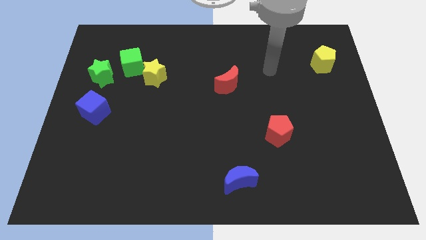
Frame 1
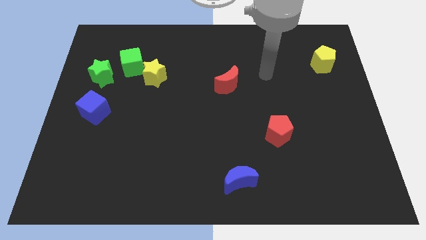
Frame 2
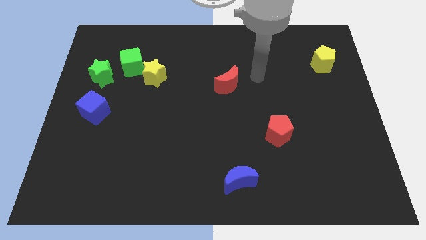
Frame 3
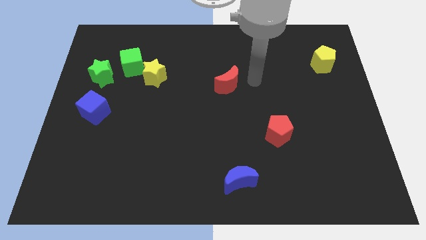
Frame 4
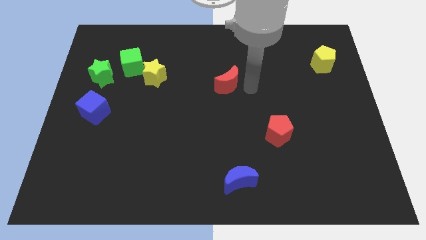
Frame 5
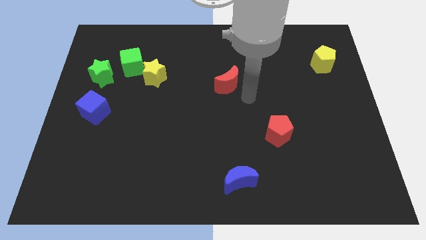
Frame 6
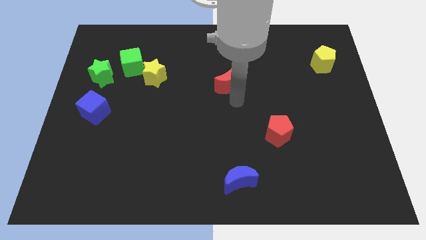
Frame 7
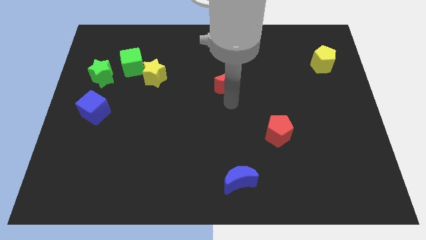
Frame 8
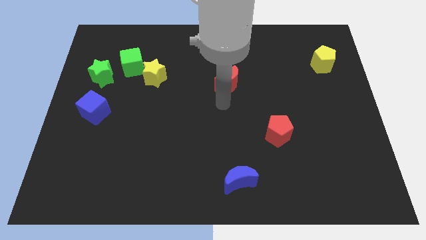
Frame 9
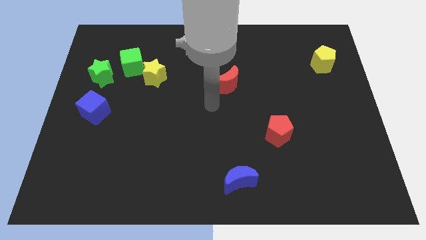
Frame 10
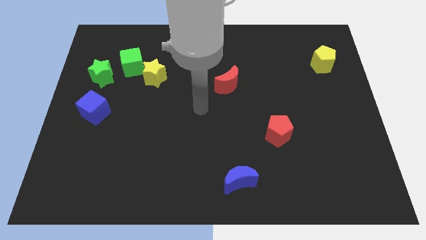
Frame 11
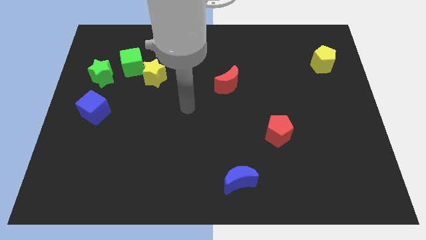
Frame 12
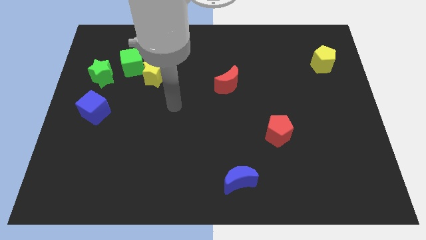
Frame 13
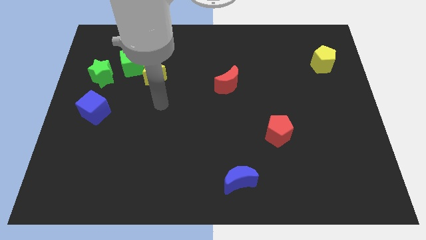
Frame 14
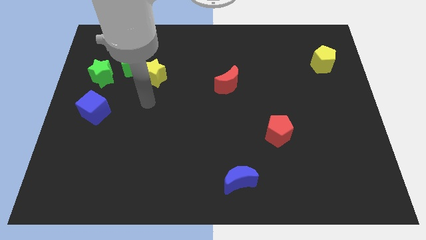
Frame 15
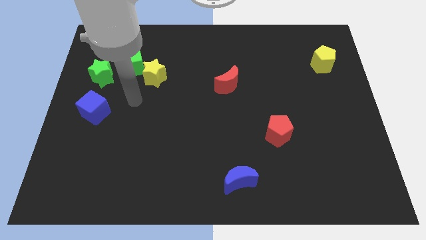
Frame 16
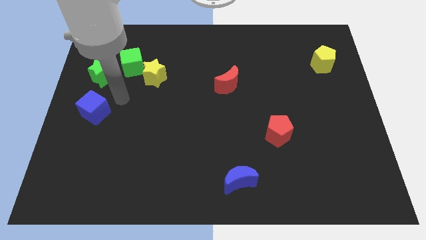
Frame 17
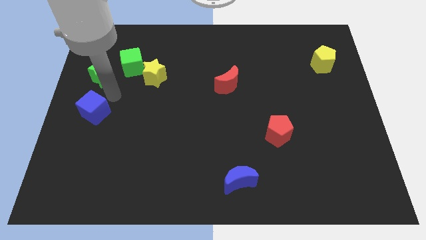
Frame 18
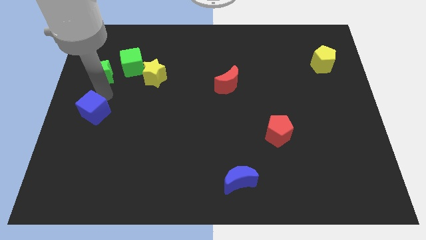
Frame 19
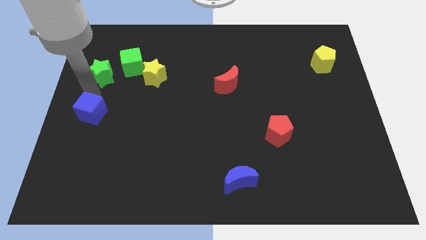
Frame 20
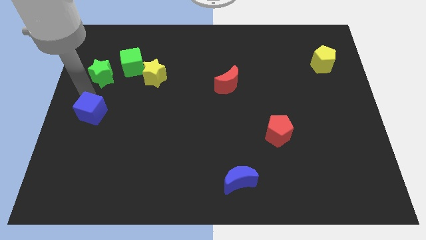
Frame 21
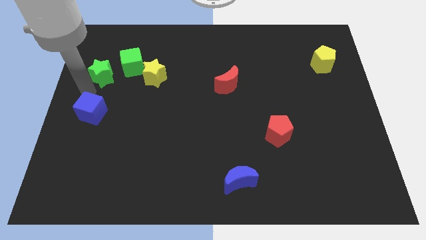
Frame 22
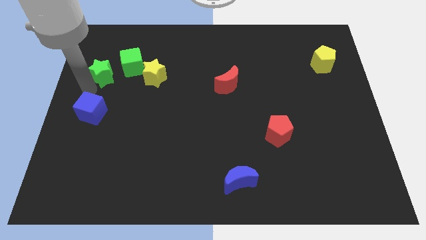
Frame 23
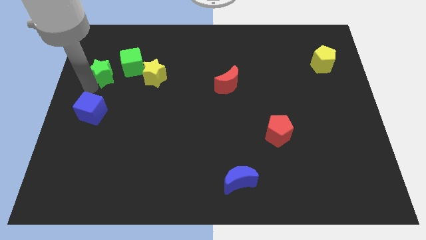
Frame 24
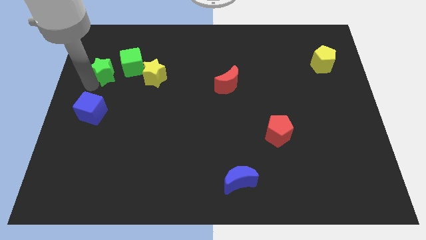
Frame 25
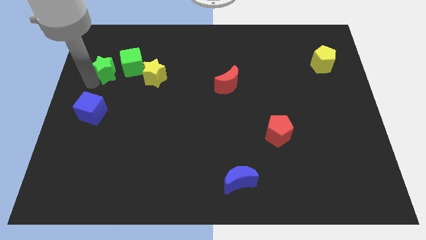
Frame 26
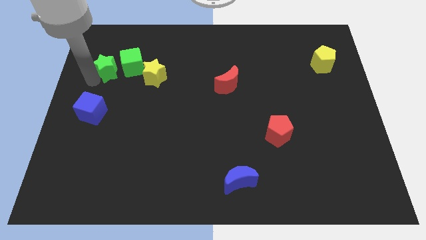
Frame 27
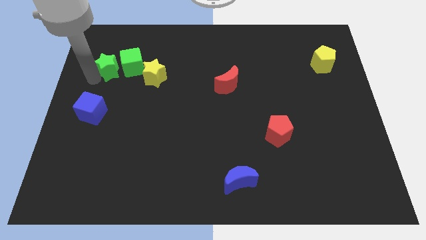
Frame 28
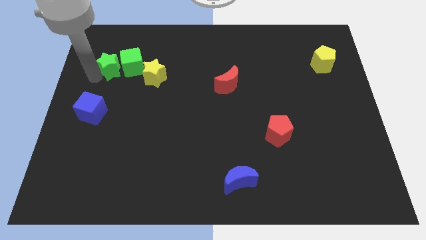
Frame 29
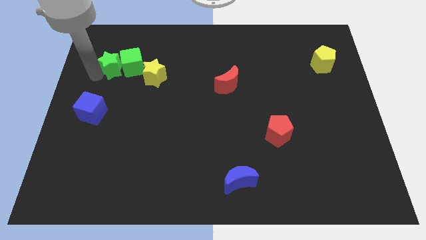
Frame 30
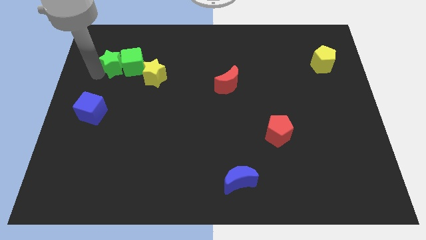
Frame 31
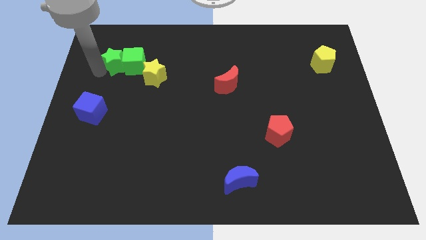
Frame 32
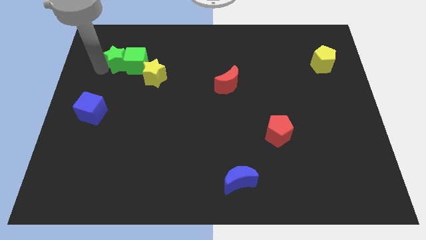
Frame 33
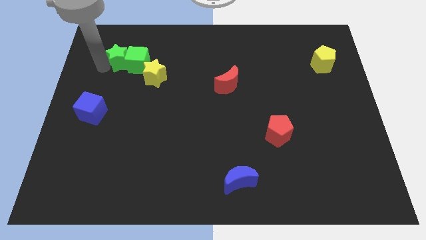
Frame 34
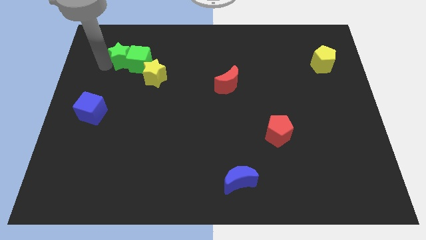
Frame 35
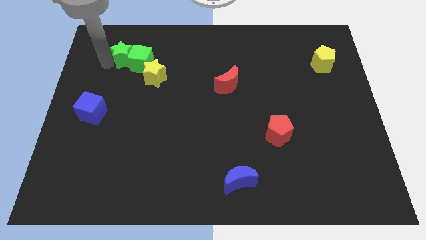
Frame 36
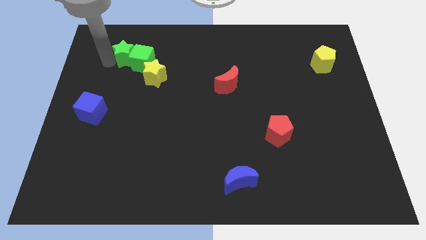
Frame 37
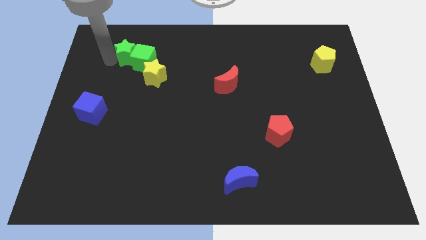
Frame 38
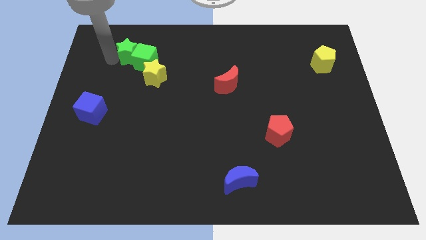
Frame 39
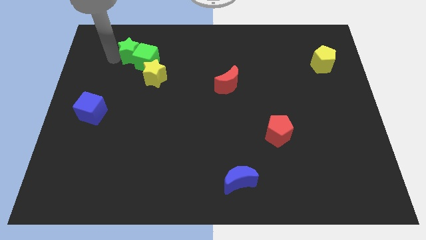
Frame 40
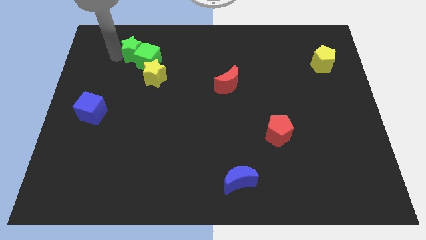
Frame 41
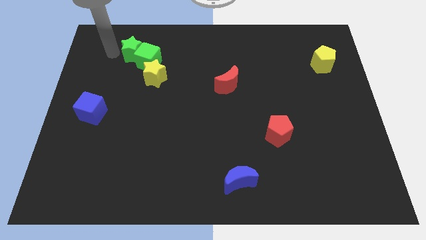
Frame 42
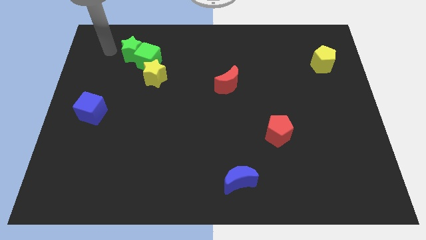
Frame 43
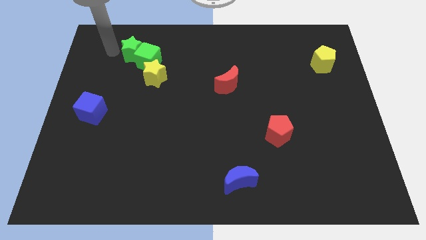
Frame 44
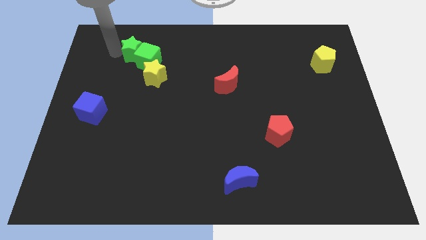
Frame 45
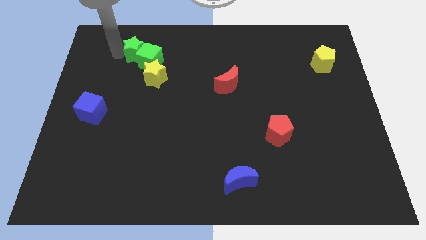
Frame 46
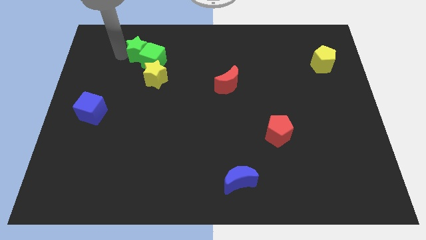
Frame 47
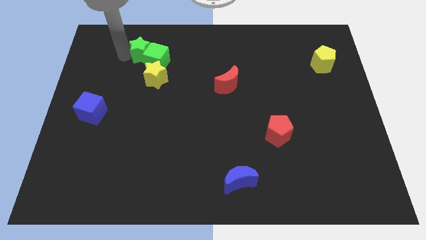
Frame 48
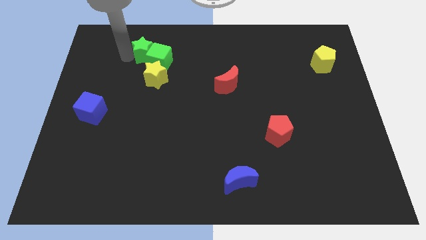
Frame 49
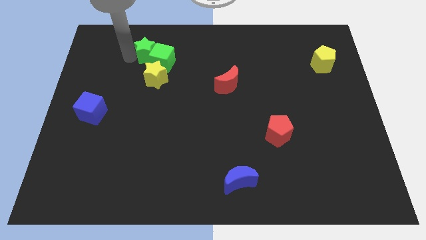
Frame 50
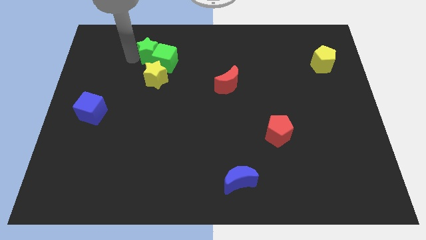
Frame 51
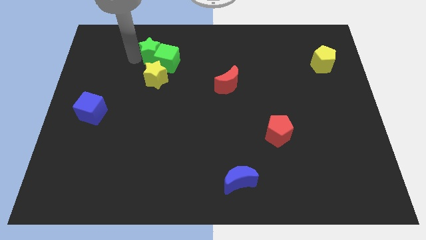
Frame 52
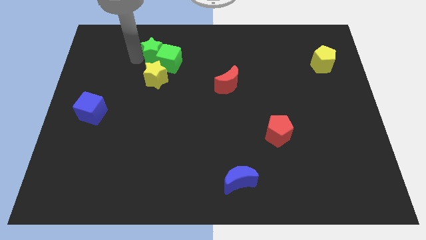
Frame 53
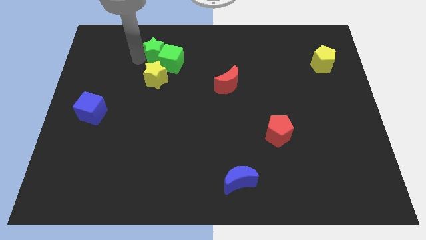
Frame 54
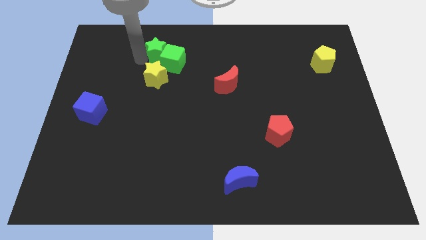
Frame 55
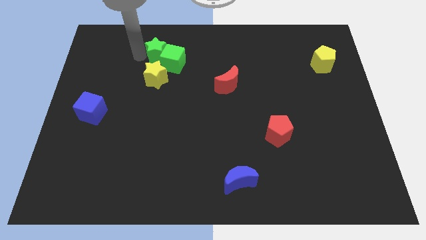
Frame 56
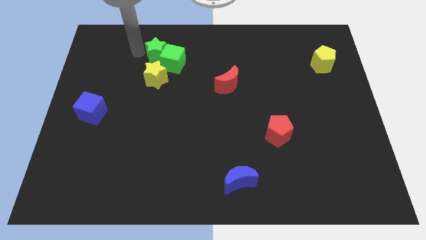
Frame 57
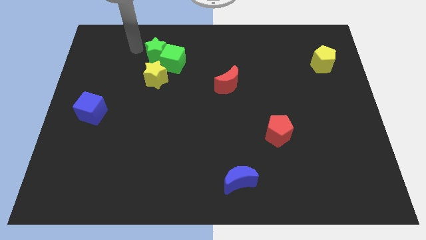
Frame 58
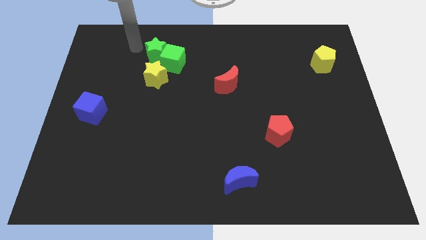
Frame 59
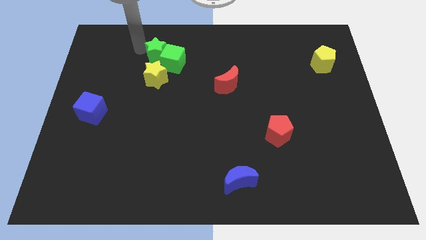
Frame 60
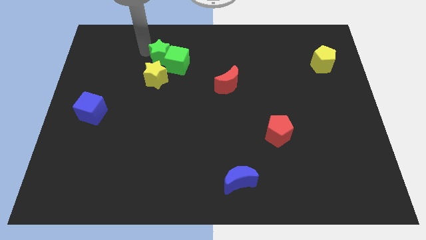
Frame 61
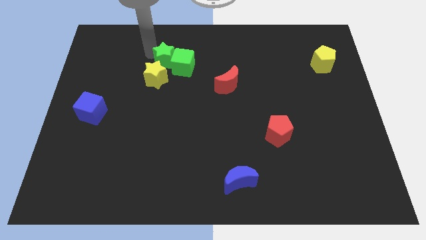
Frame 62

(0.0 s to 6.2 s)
move the green star diagonally up and to the right of the yellow star

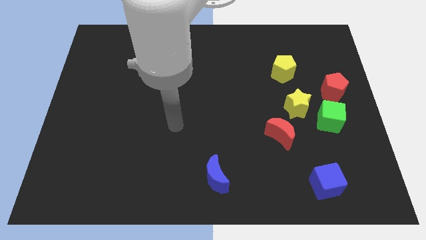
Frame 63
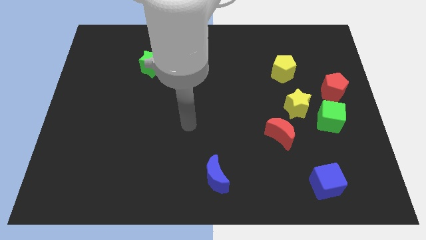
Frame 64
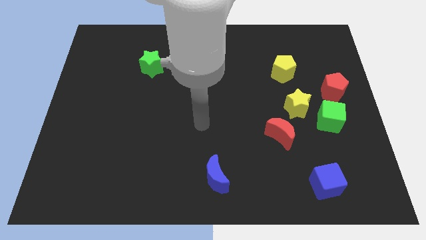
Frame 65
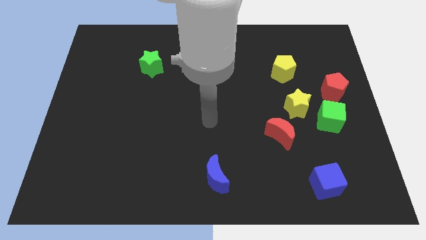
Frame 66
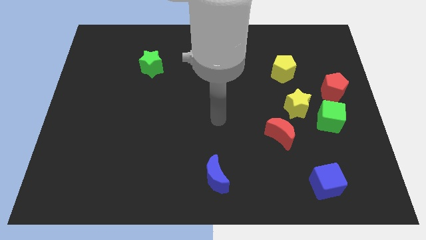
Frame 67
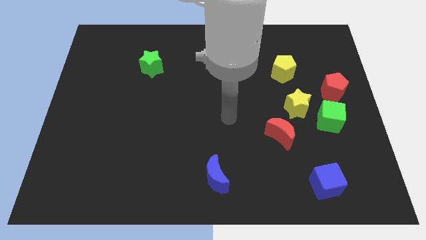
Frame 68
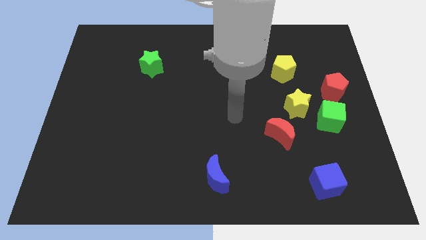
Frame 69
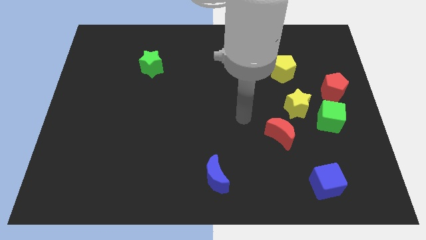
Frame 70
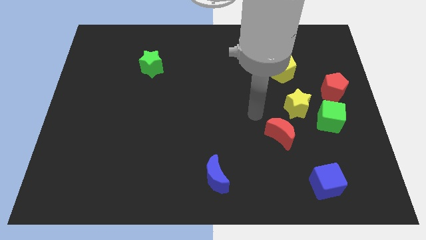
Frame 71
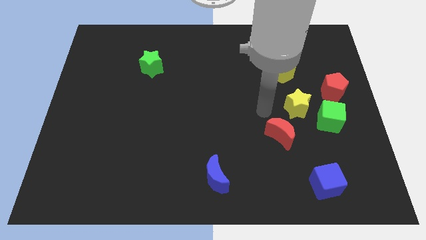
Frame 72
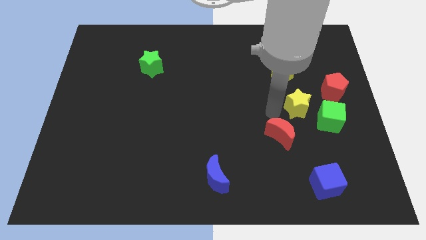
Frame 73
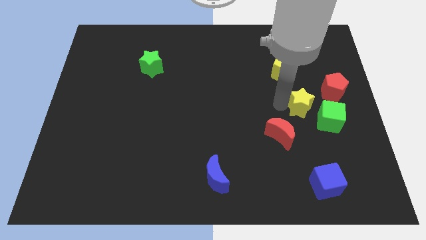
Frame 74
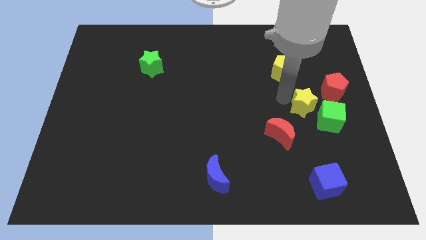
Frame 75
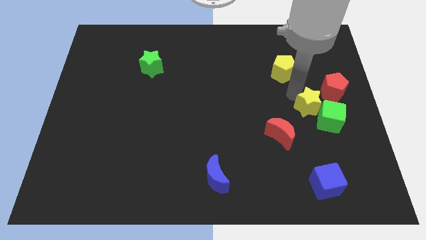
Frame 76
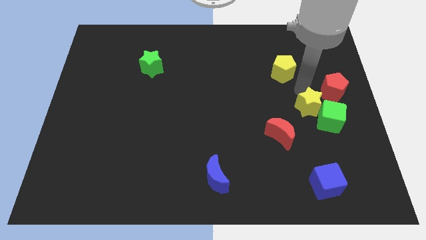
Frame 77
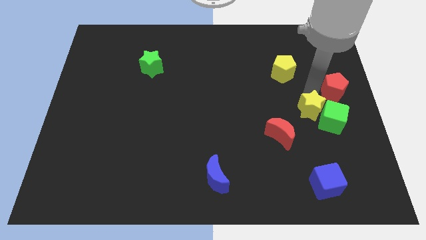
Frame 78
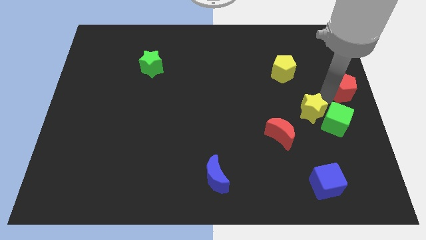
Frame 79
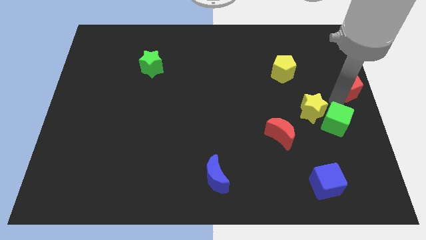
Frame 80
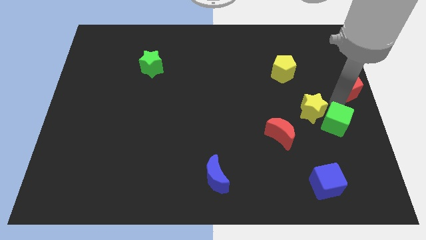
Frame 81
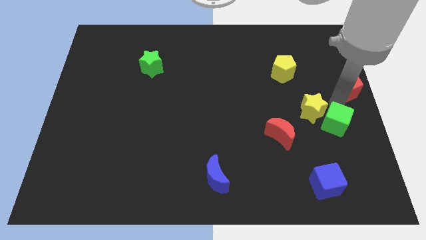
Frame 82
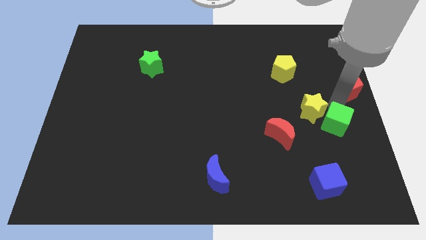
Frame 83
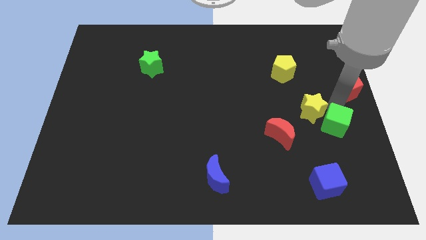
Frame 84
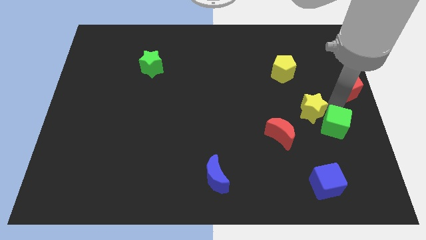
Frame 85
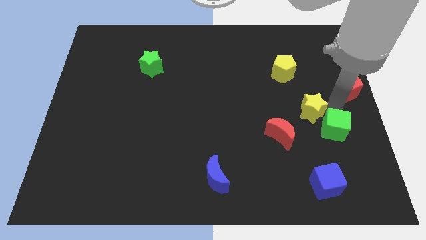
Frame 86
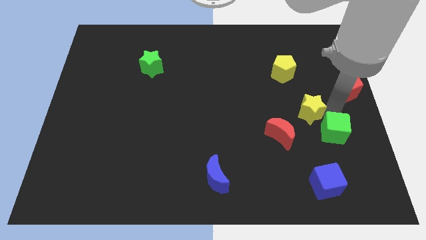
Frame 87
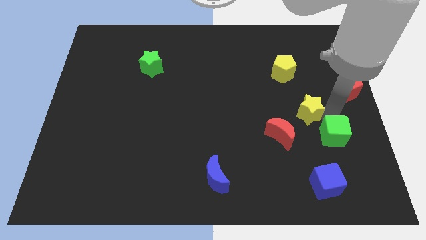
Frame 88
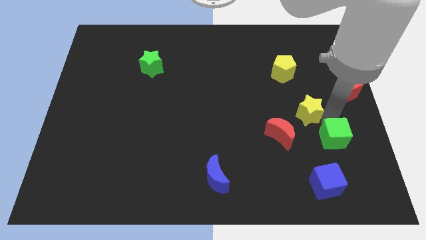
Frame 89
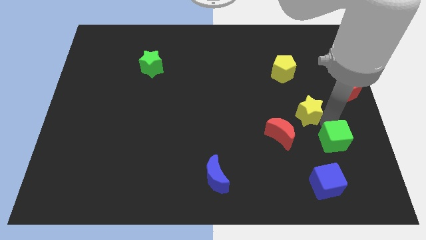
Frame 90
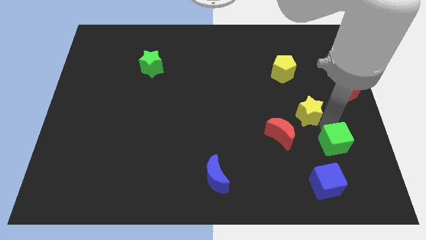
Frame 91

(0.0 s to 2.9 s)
put the green cube diagonally up and to the right of the blue cube
